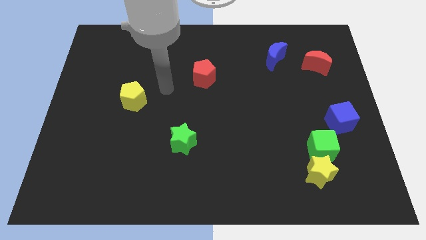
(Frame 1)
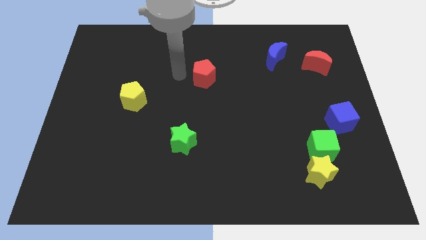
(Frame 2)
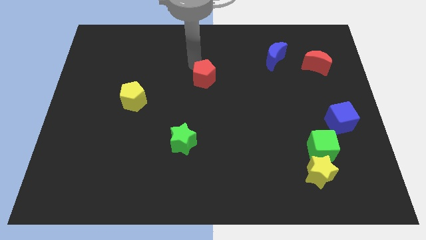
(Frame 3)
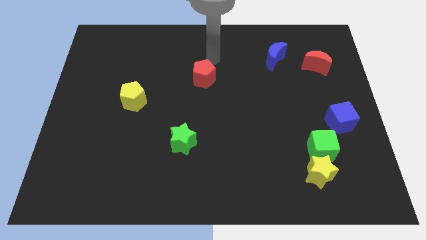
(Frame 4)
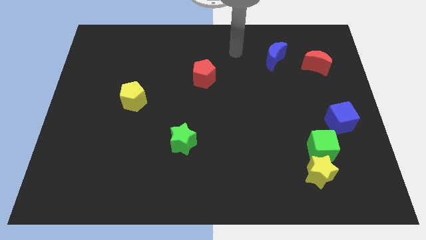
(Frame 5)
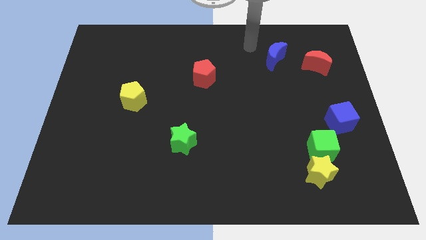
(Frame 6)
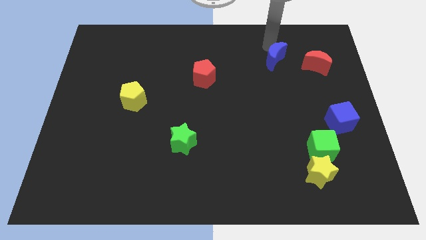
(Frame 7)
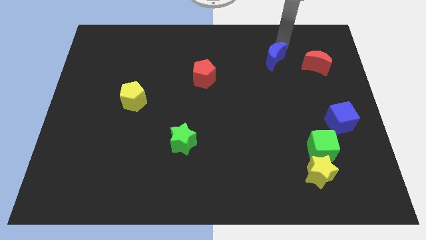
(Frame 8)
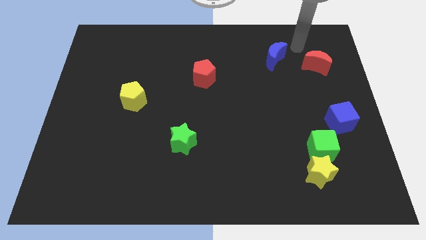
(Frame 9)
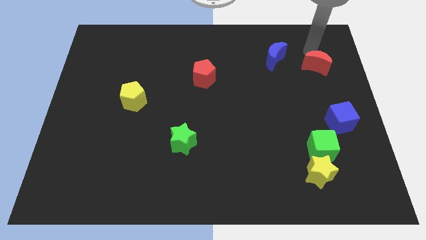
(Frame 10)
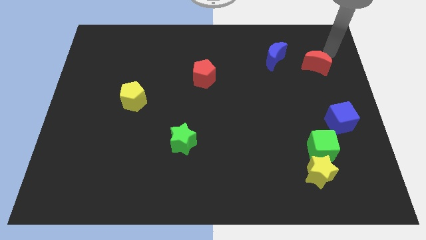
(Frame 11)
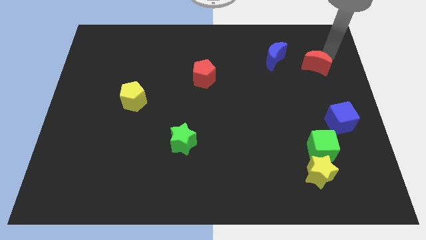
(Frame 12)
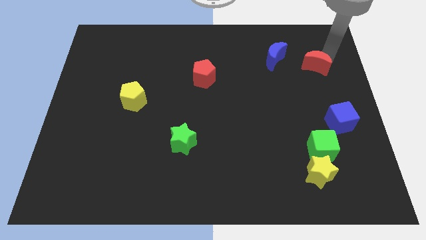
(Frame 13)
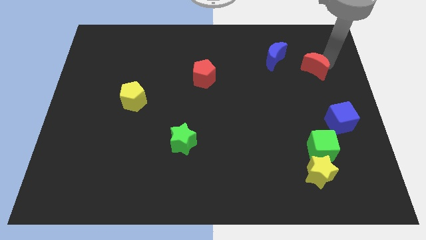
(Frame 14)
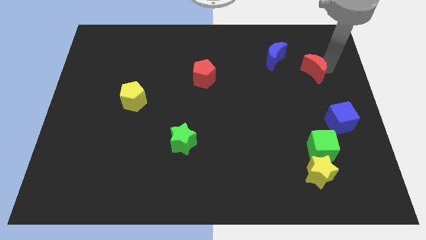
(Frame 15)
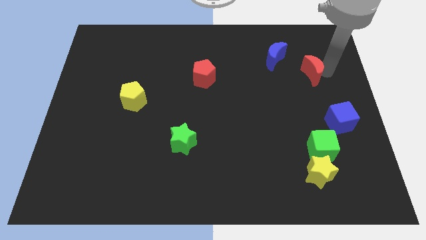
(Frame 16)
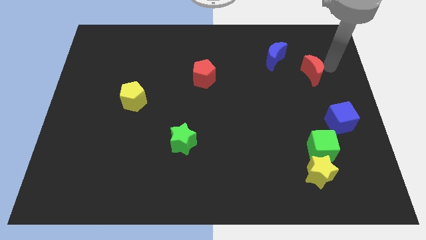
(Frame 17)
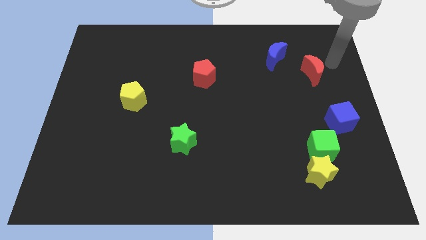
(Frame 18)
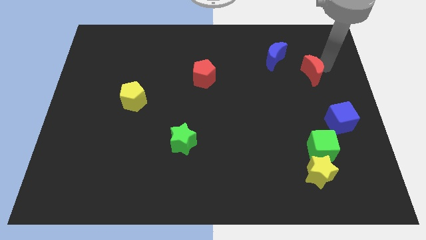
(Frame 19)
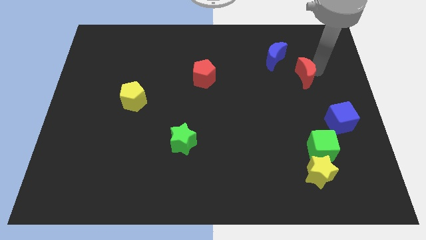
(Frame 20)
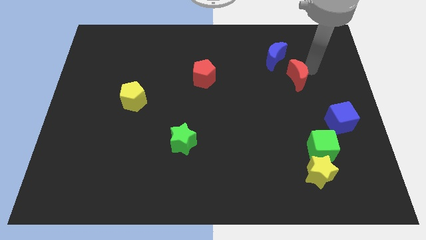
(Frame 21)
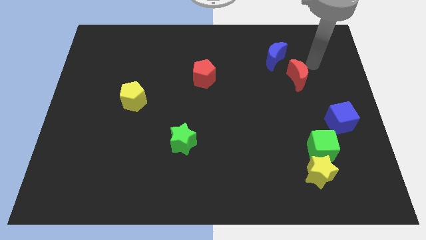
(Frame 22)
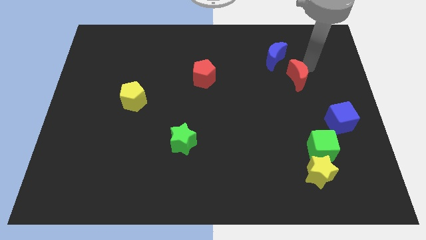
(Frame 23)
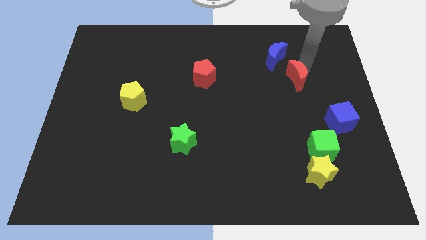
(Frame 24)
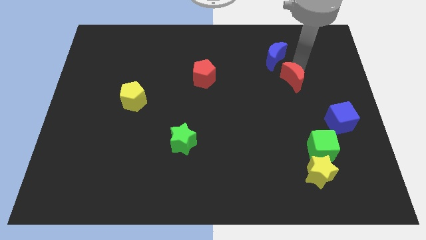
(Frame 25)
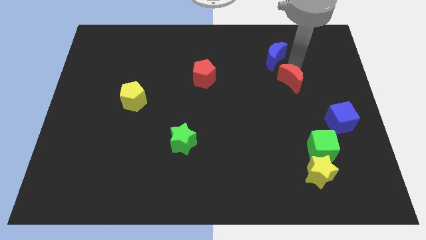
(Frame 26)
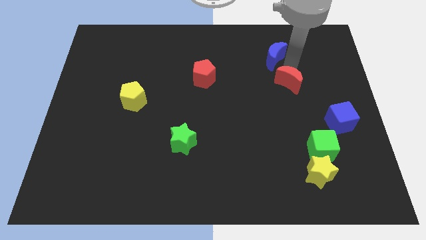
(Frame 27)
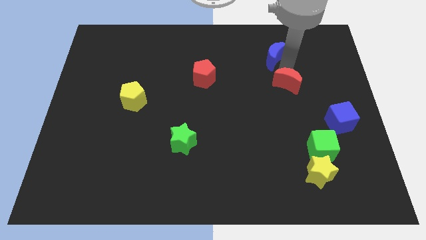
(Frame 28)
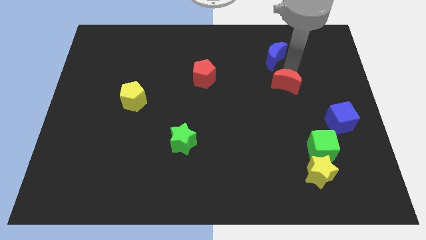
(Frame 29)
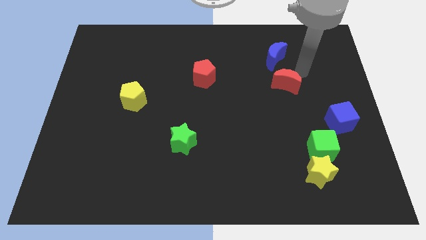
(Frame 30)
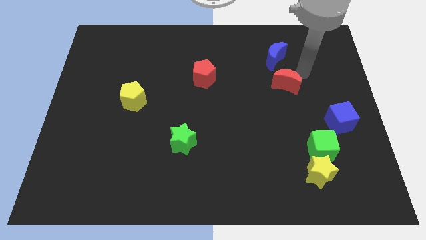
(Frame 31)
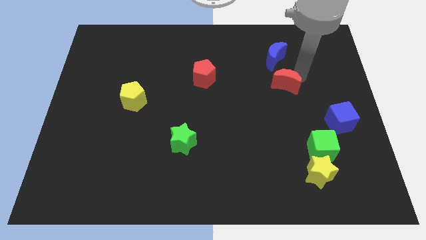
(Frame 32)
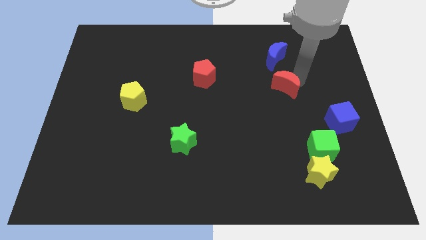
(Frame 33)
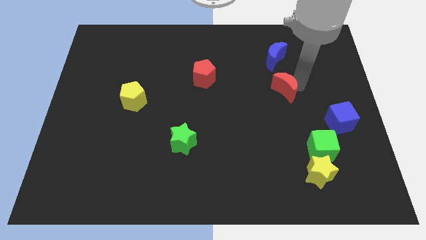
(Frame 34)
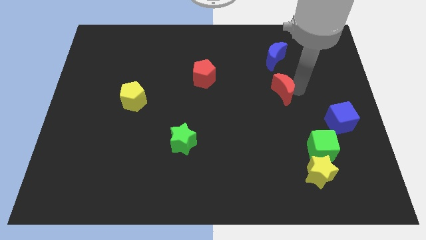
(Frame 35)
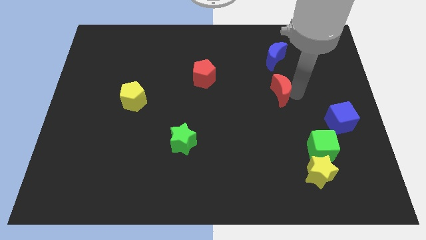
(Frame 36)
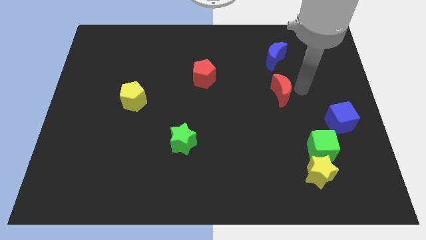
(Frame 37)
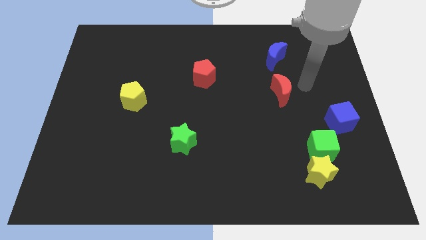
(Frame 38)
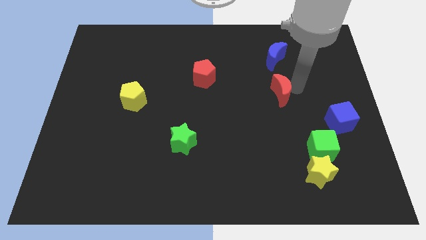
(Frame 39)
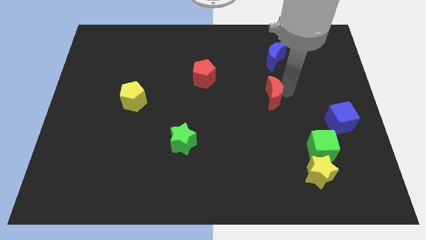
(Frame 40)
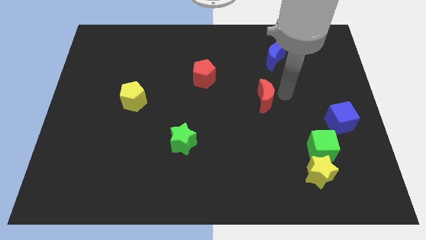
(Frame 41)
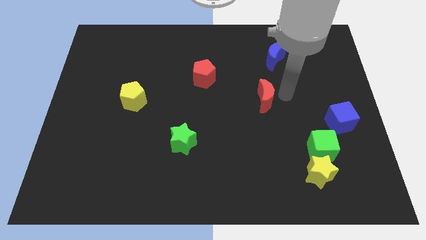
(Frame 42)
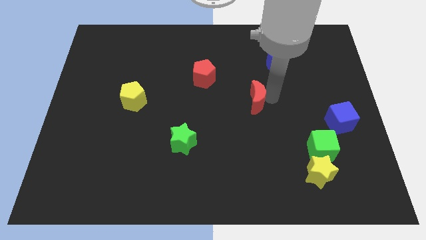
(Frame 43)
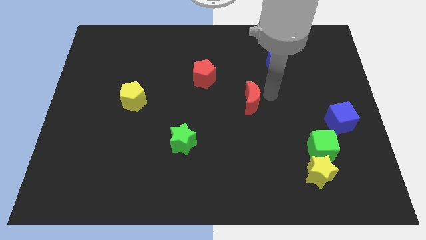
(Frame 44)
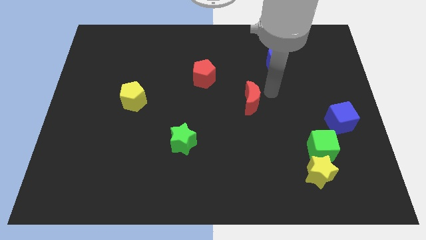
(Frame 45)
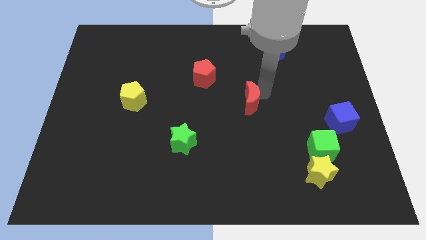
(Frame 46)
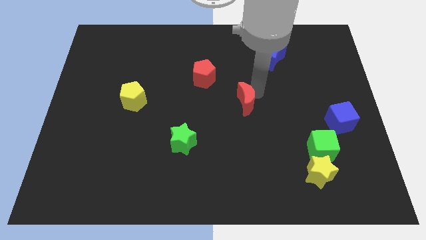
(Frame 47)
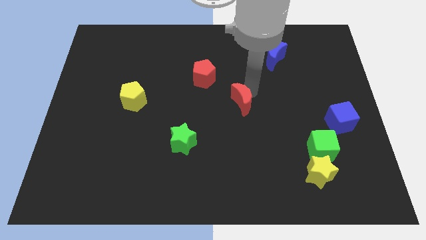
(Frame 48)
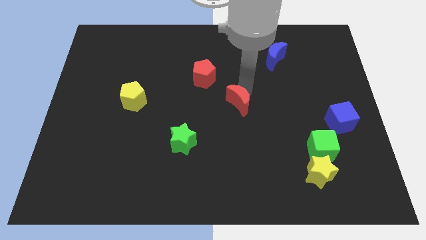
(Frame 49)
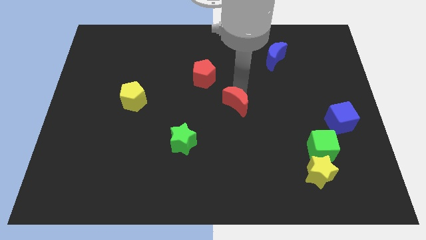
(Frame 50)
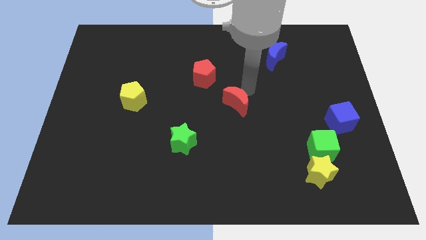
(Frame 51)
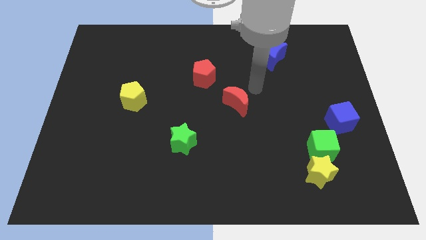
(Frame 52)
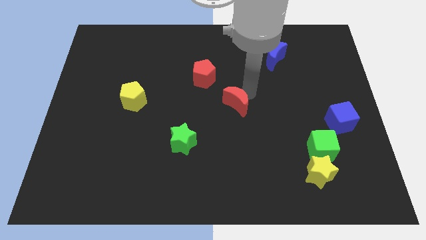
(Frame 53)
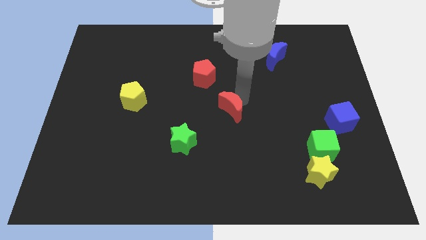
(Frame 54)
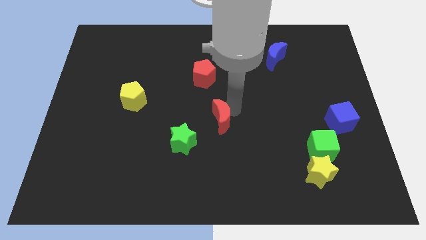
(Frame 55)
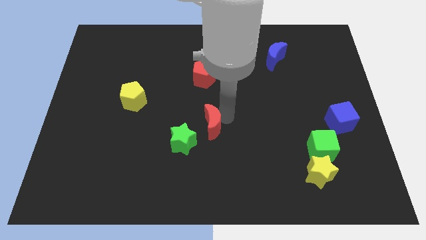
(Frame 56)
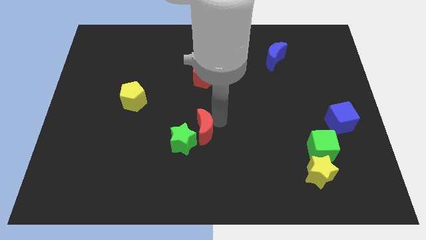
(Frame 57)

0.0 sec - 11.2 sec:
slide the red moon towards the green star

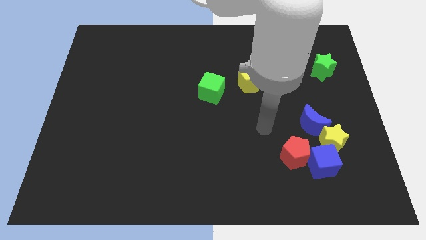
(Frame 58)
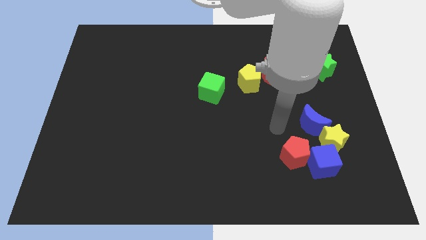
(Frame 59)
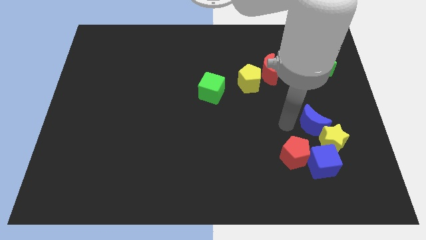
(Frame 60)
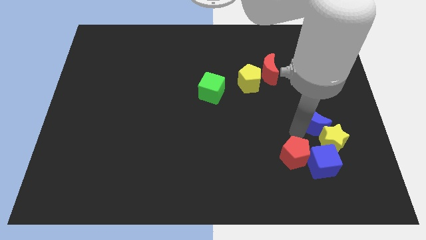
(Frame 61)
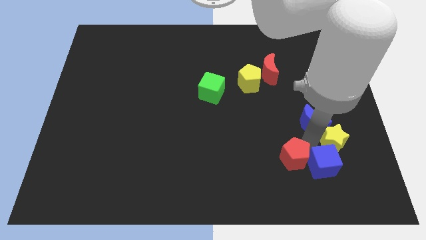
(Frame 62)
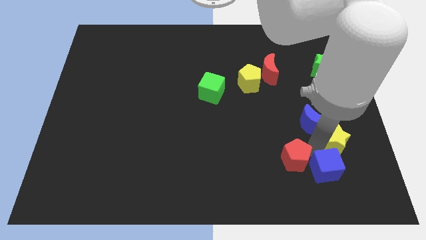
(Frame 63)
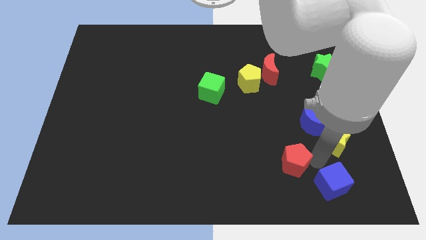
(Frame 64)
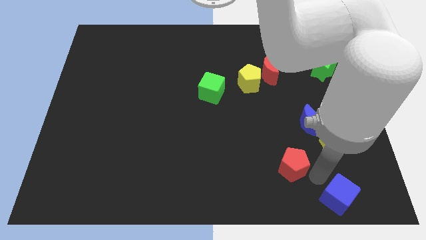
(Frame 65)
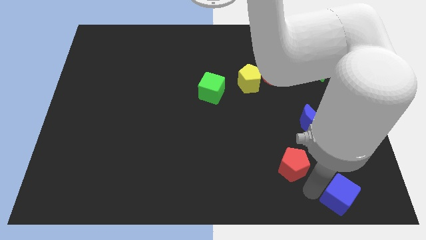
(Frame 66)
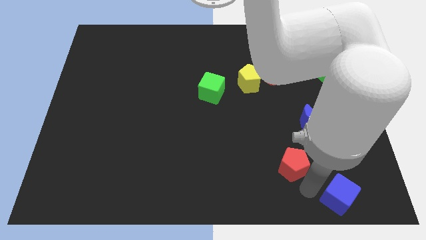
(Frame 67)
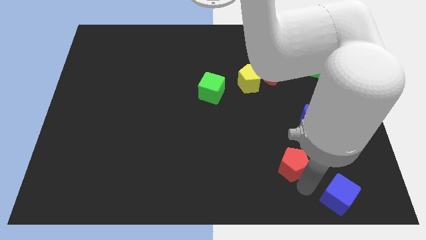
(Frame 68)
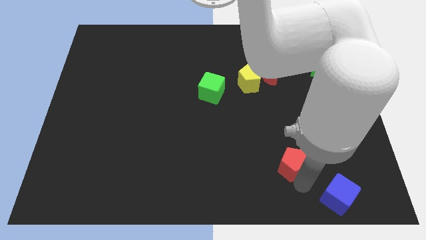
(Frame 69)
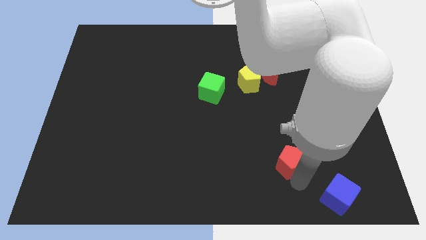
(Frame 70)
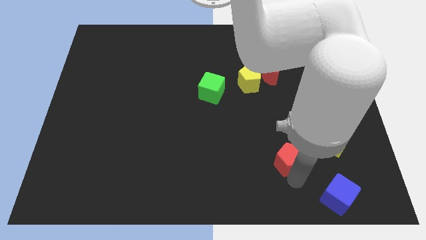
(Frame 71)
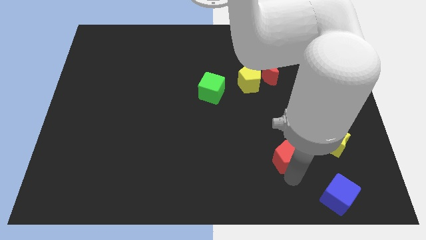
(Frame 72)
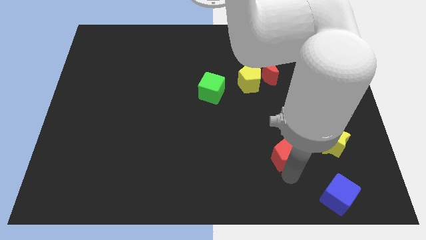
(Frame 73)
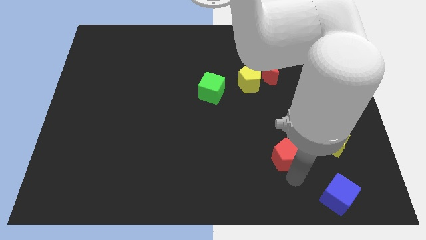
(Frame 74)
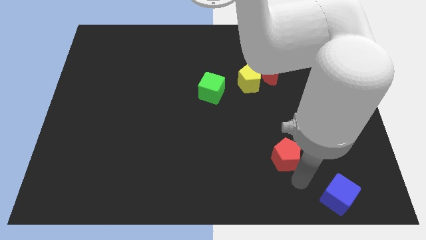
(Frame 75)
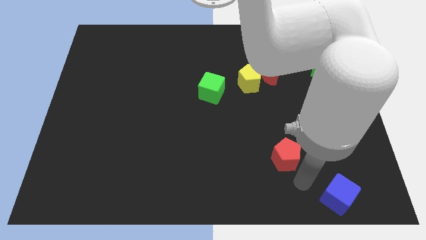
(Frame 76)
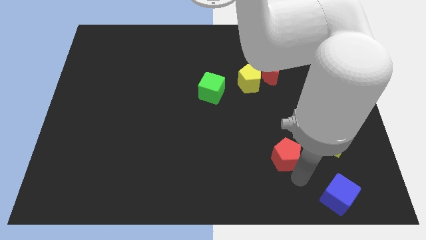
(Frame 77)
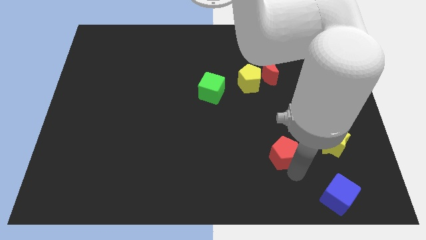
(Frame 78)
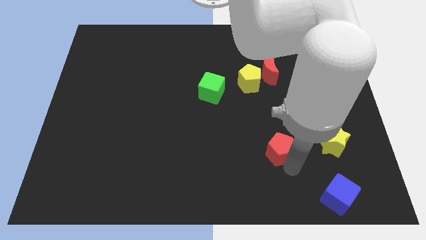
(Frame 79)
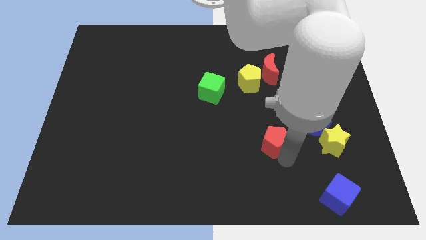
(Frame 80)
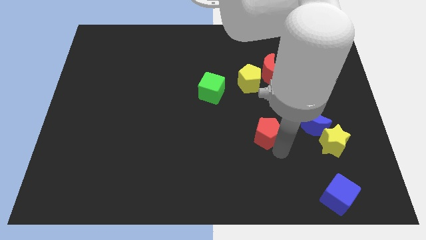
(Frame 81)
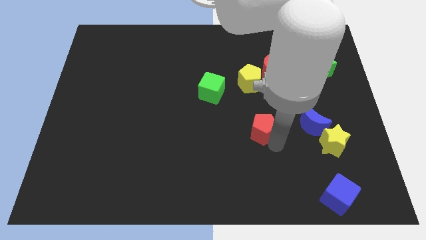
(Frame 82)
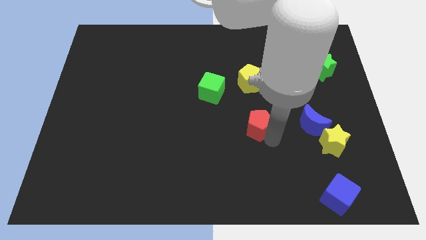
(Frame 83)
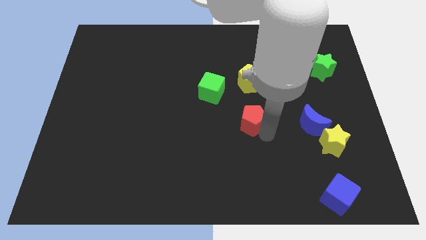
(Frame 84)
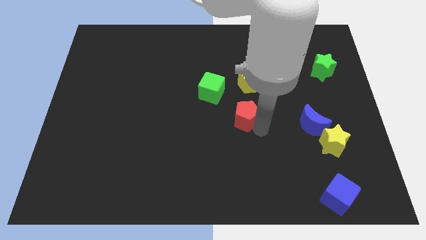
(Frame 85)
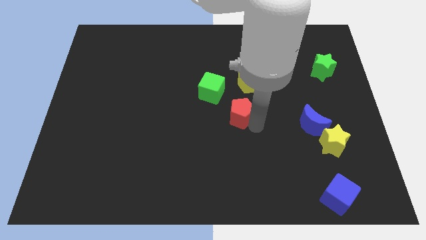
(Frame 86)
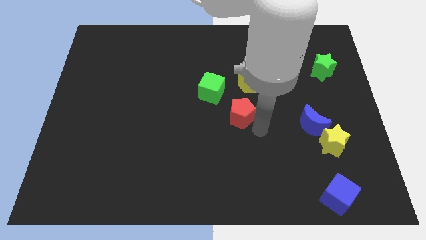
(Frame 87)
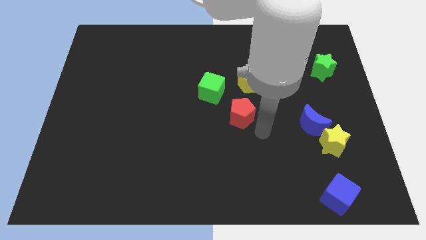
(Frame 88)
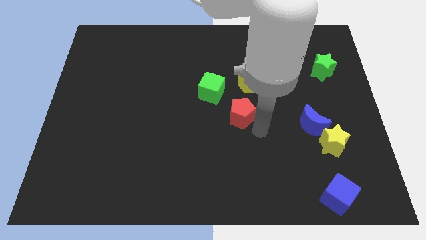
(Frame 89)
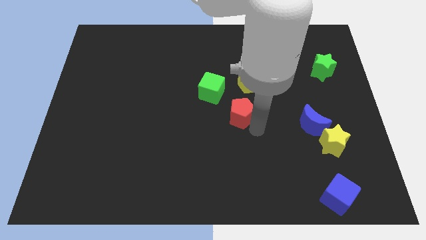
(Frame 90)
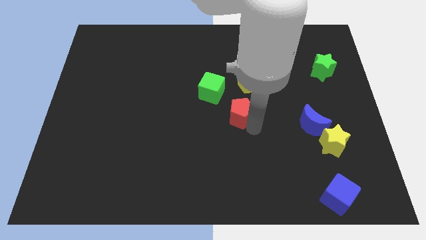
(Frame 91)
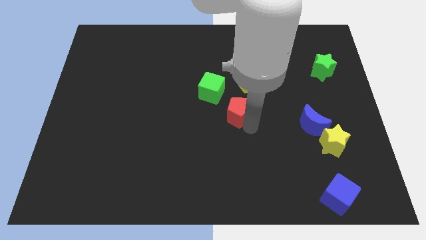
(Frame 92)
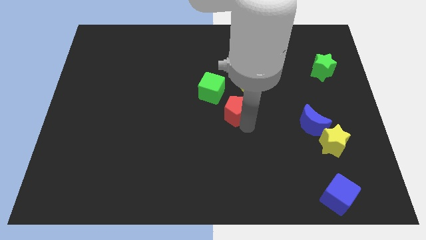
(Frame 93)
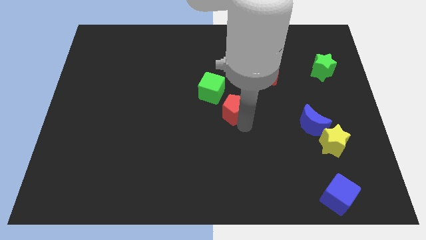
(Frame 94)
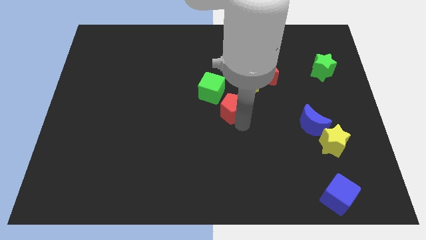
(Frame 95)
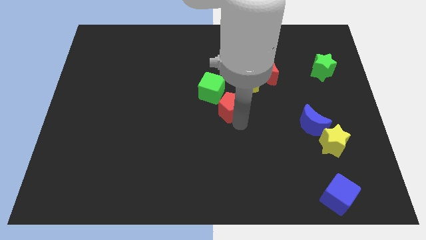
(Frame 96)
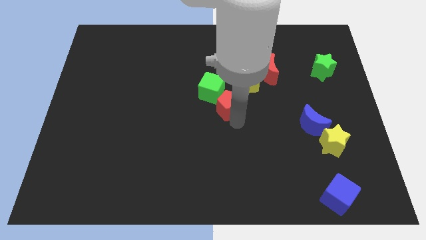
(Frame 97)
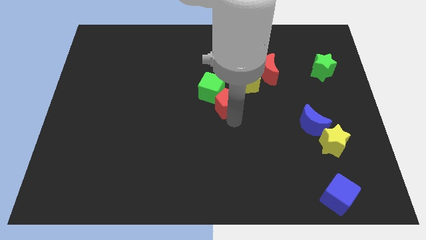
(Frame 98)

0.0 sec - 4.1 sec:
push the red pentagon close to the green cube
